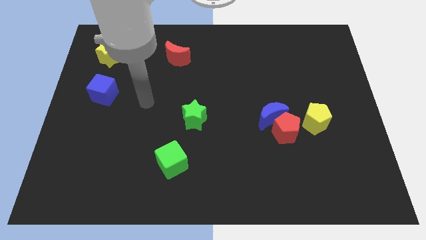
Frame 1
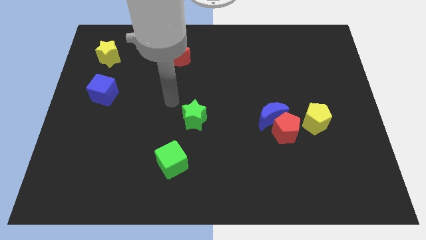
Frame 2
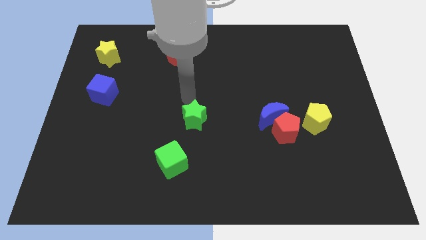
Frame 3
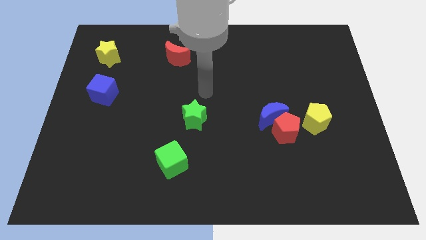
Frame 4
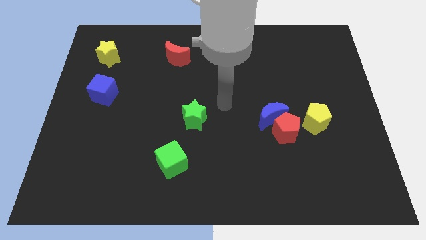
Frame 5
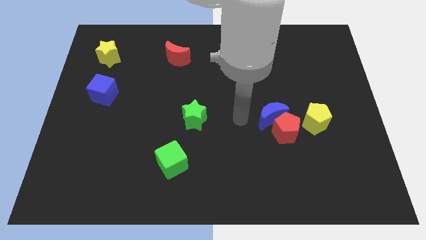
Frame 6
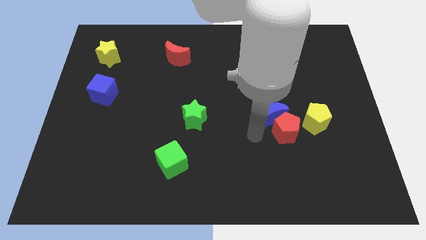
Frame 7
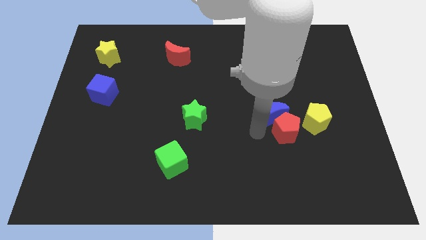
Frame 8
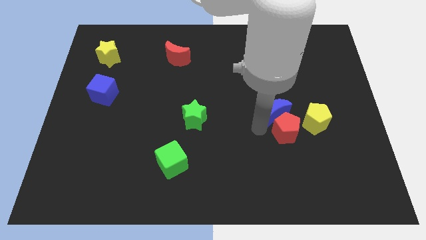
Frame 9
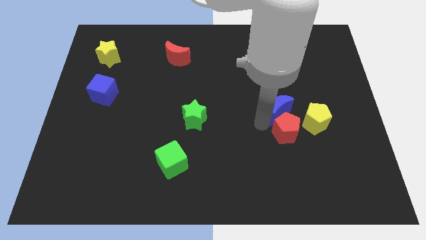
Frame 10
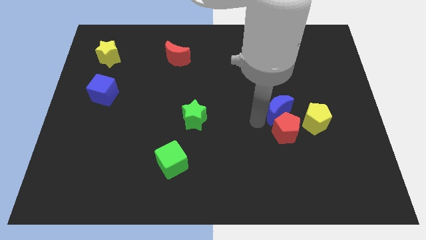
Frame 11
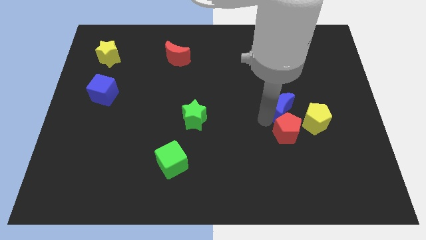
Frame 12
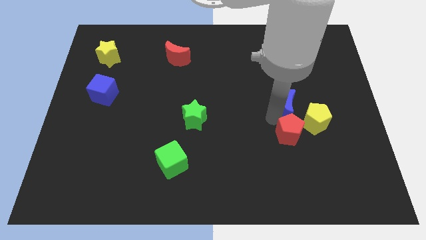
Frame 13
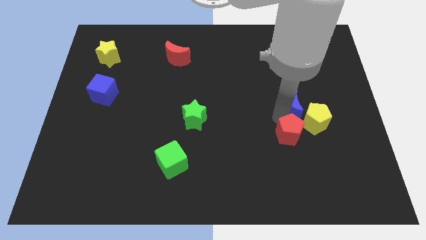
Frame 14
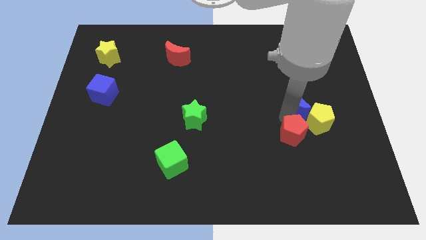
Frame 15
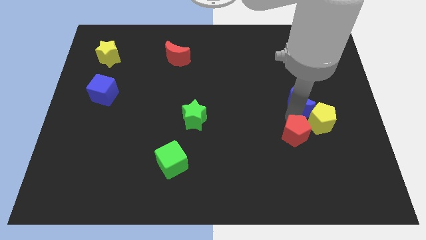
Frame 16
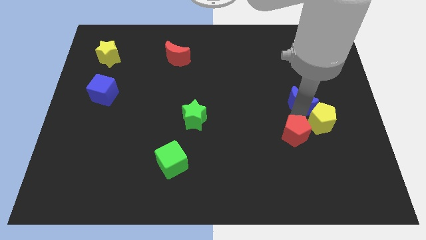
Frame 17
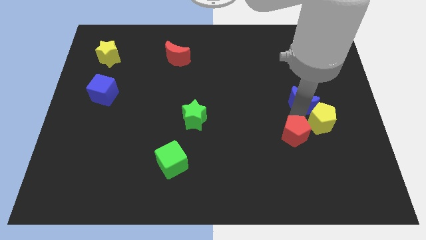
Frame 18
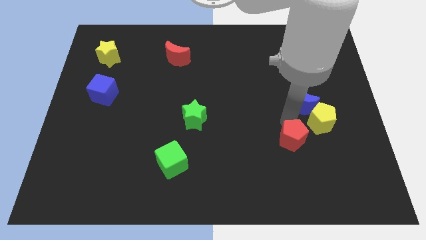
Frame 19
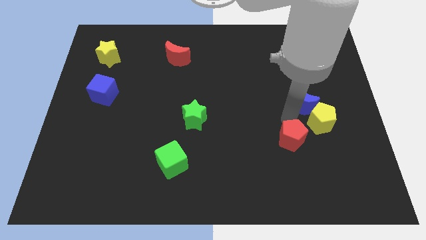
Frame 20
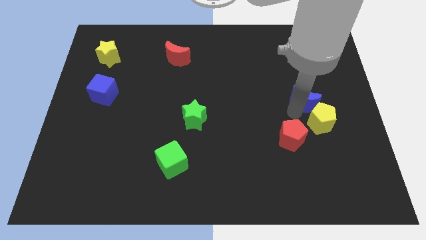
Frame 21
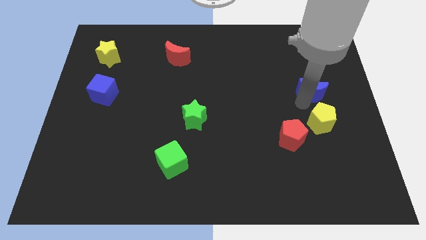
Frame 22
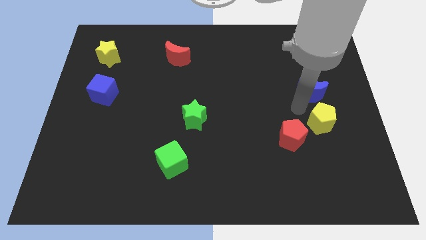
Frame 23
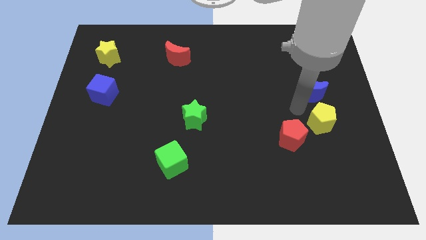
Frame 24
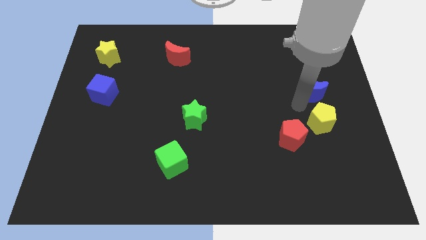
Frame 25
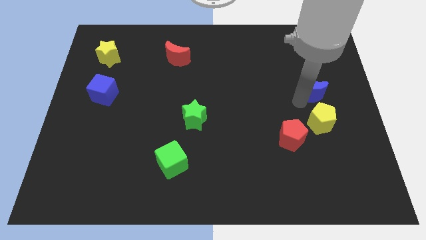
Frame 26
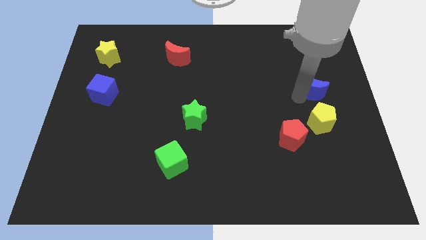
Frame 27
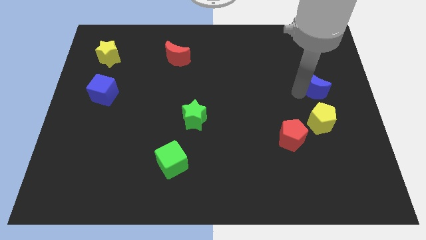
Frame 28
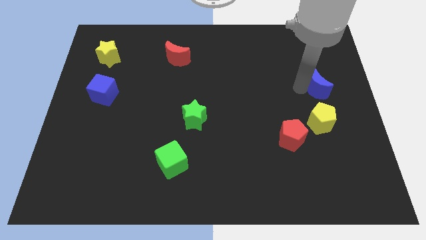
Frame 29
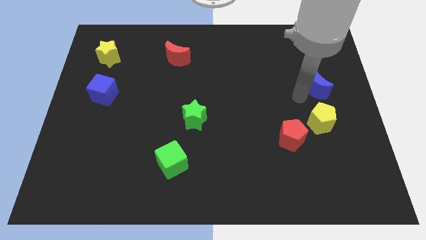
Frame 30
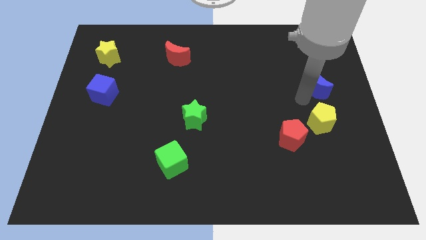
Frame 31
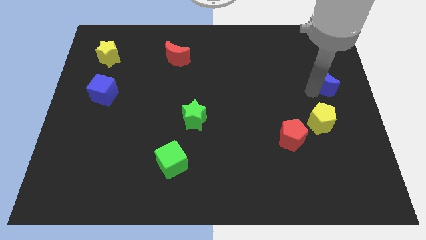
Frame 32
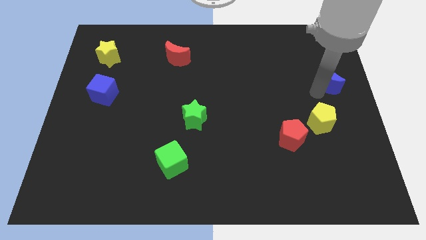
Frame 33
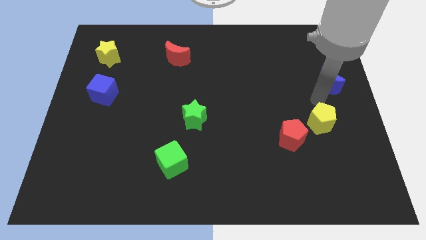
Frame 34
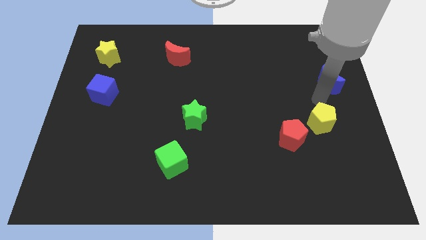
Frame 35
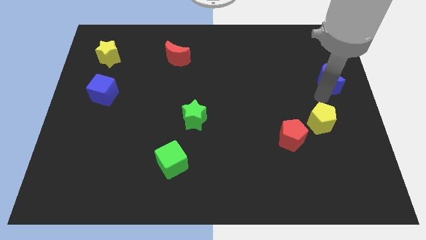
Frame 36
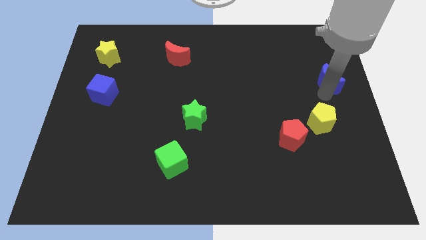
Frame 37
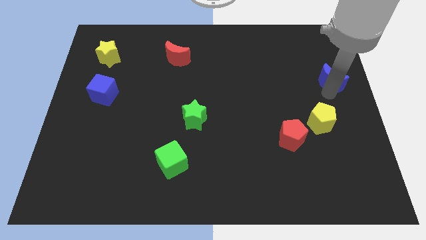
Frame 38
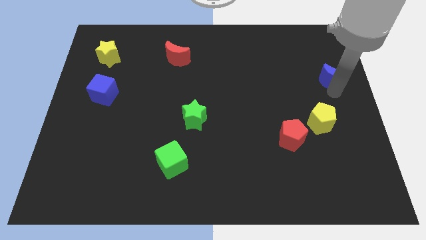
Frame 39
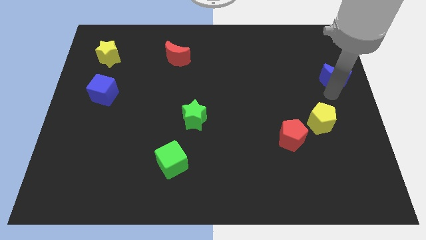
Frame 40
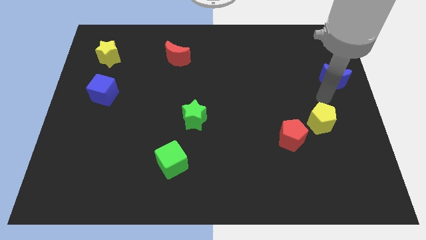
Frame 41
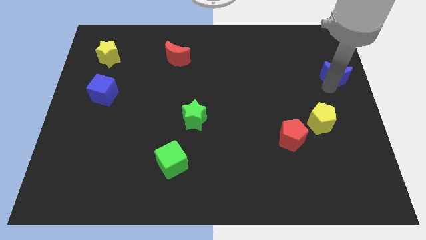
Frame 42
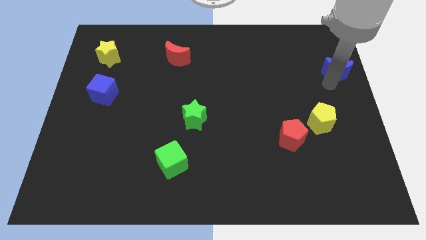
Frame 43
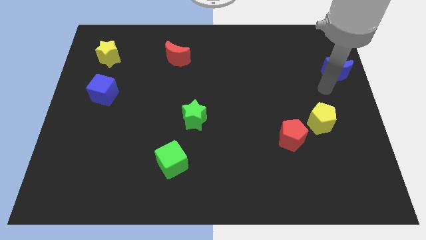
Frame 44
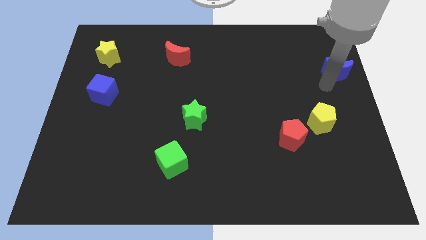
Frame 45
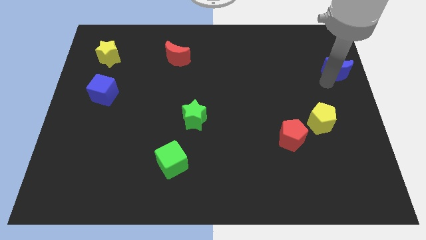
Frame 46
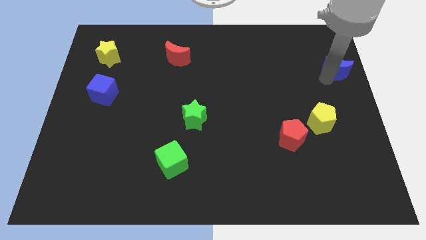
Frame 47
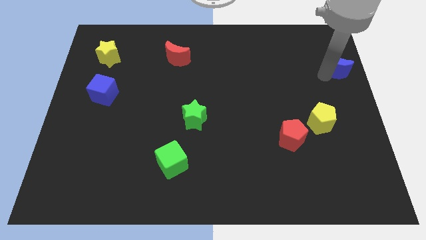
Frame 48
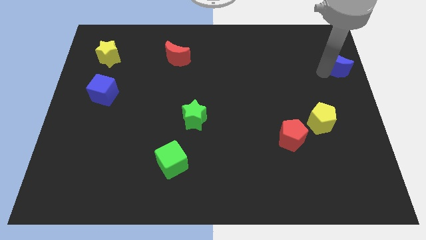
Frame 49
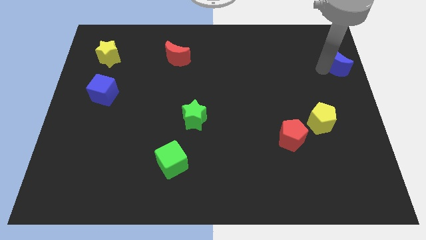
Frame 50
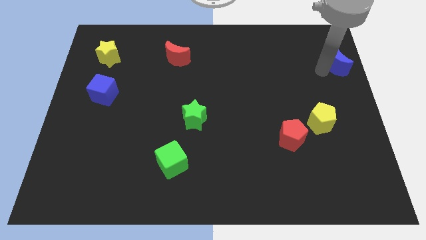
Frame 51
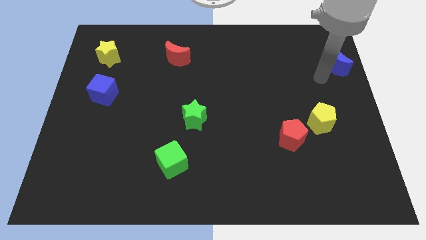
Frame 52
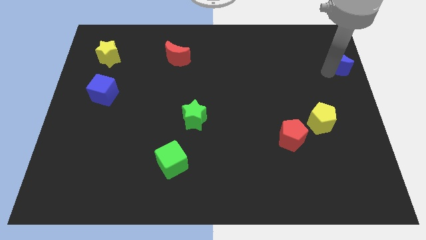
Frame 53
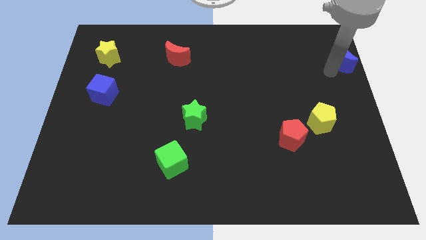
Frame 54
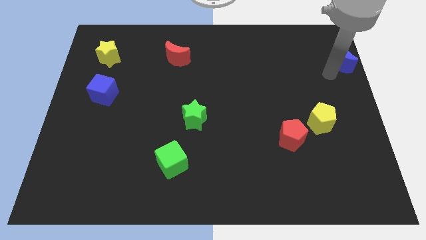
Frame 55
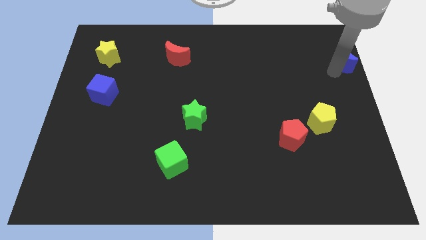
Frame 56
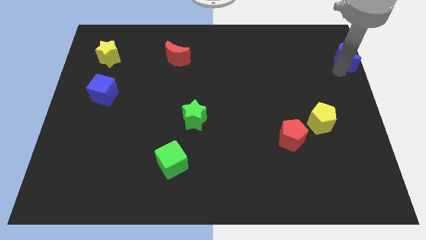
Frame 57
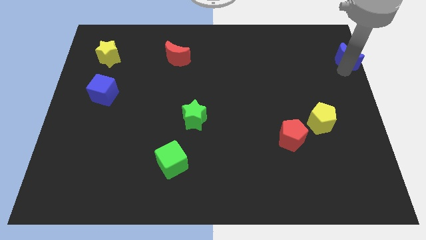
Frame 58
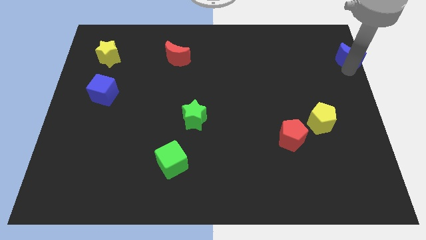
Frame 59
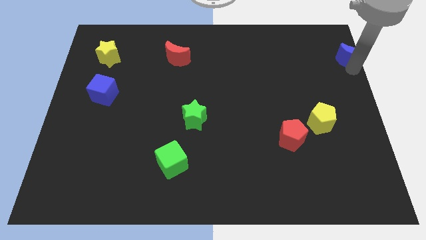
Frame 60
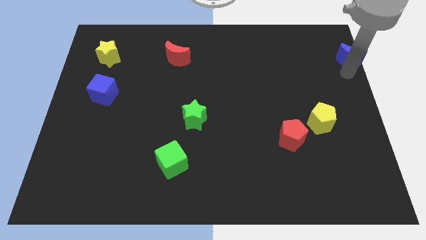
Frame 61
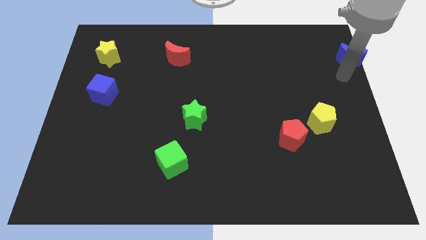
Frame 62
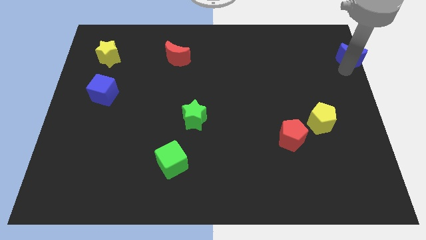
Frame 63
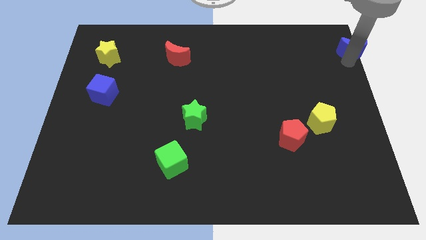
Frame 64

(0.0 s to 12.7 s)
put the blue moon to the top right

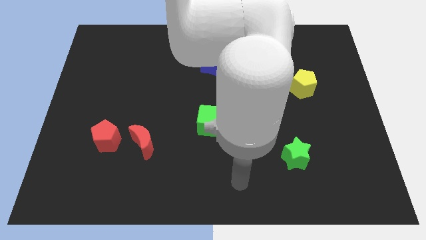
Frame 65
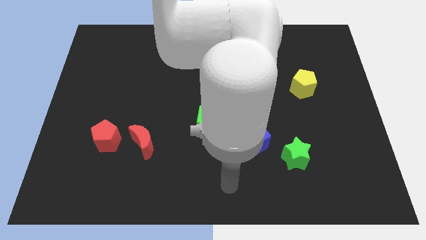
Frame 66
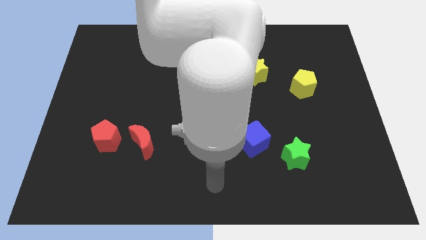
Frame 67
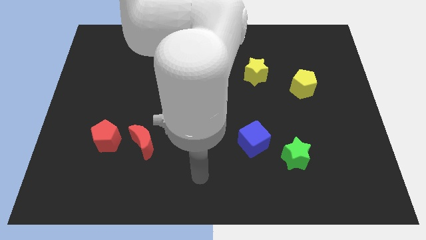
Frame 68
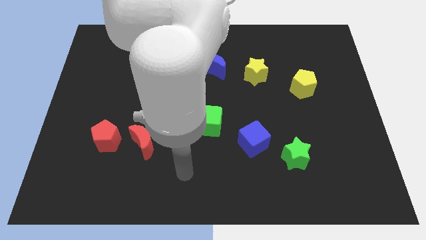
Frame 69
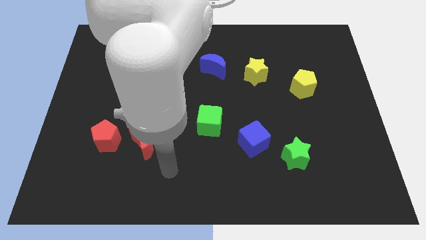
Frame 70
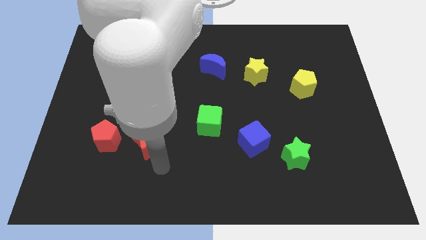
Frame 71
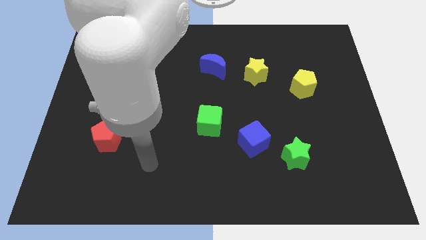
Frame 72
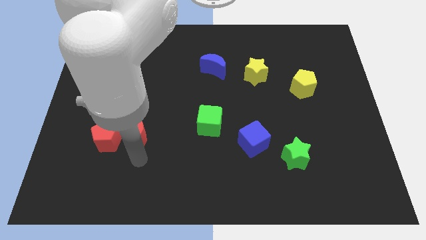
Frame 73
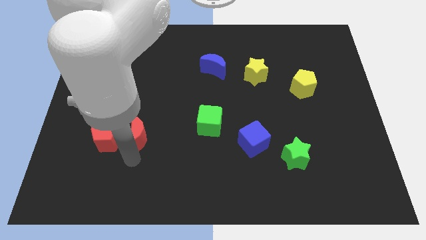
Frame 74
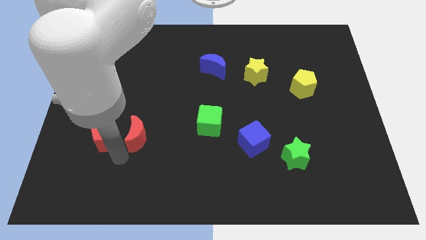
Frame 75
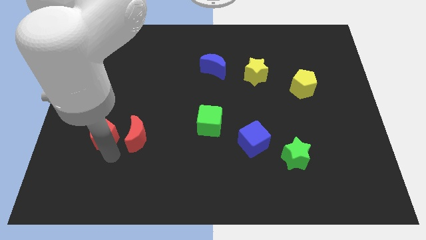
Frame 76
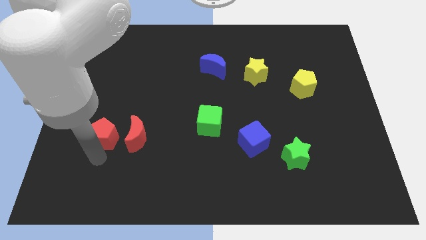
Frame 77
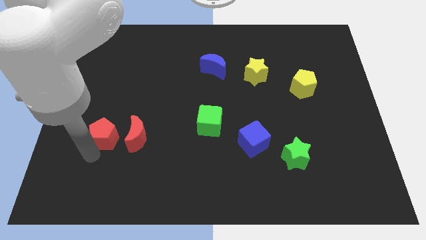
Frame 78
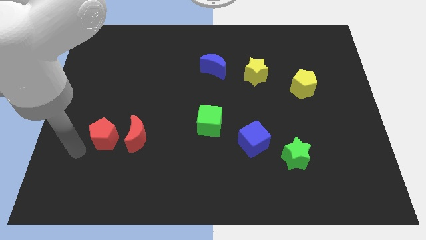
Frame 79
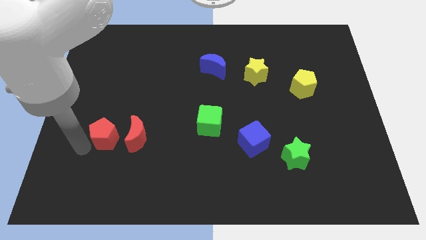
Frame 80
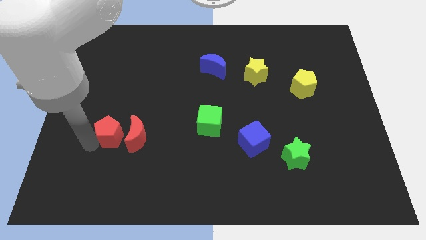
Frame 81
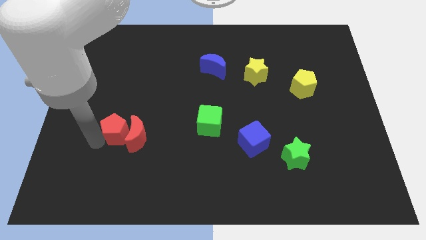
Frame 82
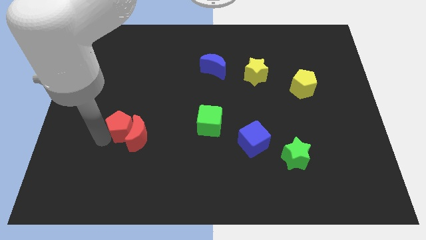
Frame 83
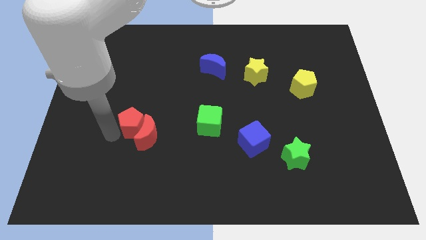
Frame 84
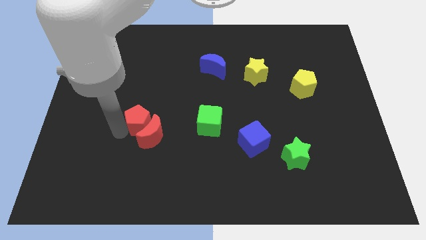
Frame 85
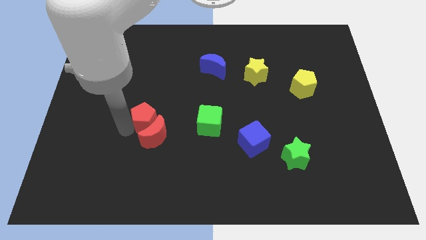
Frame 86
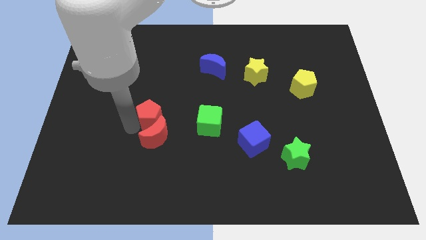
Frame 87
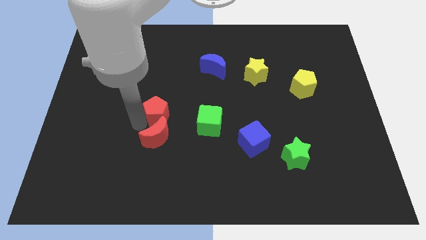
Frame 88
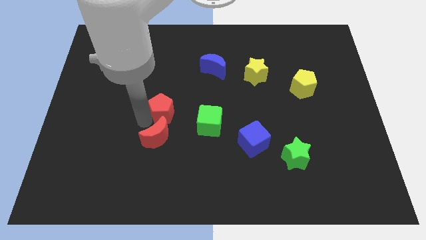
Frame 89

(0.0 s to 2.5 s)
move the red pentagon to the middle
